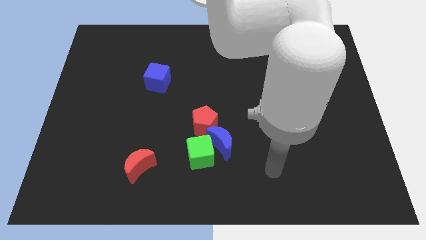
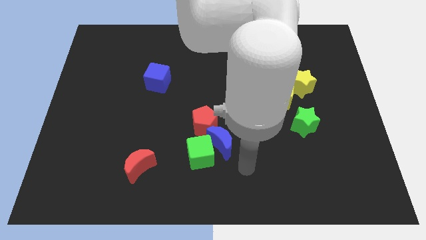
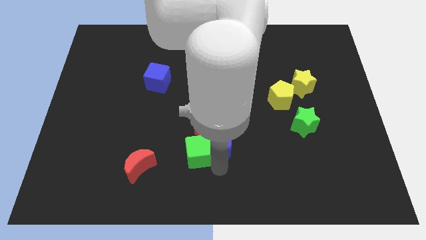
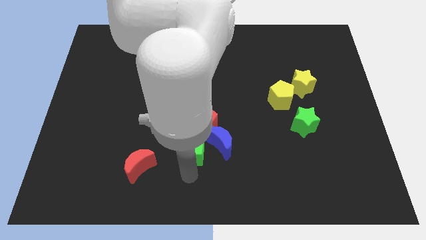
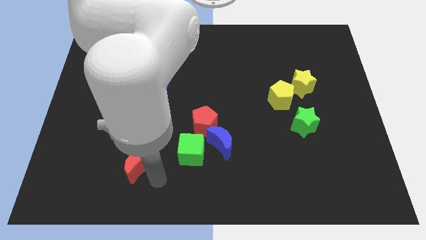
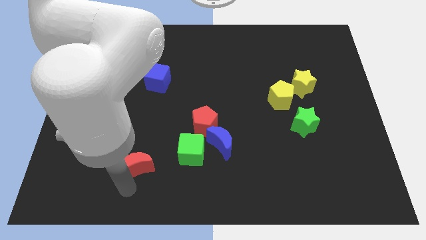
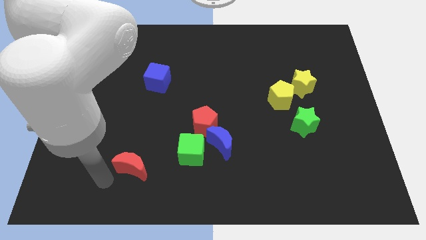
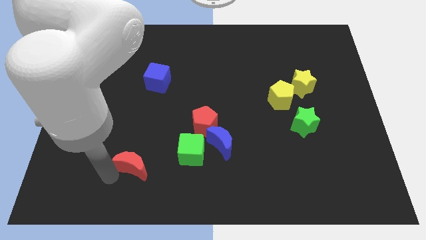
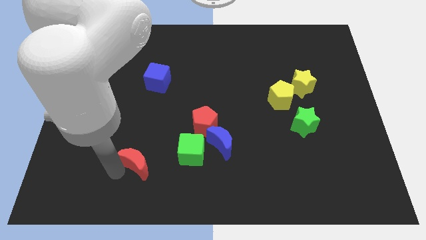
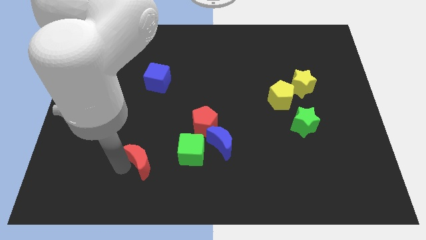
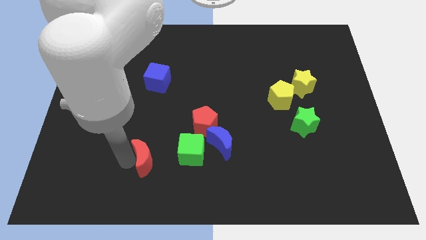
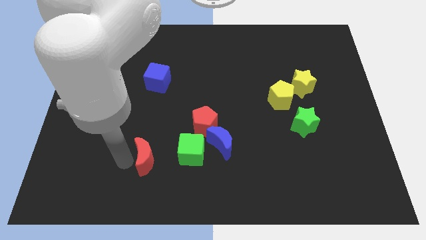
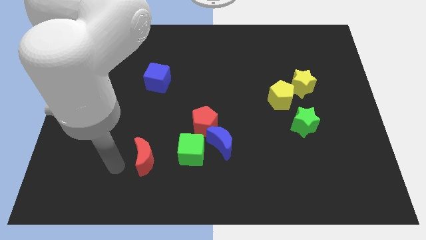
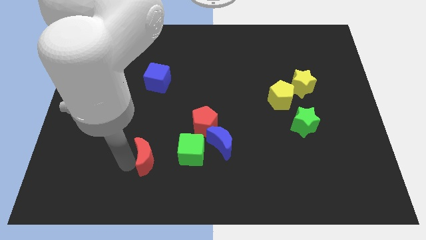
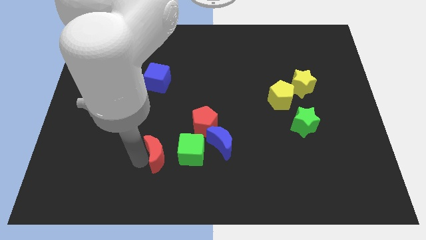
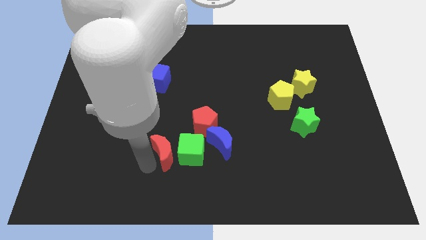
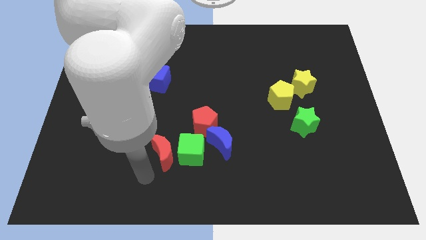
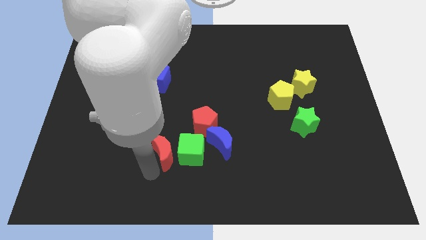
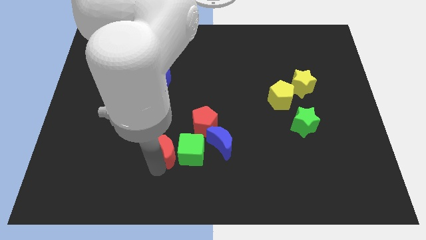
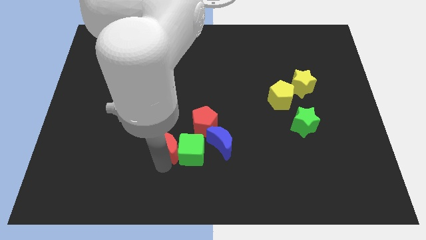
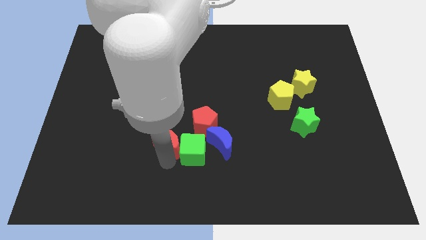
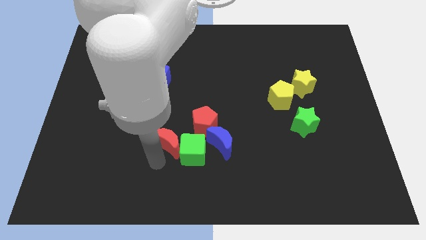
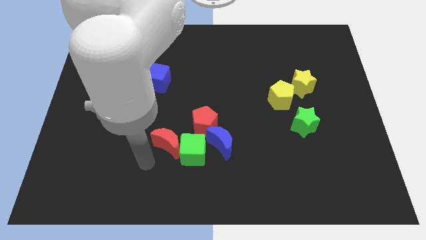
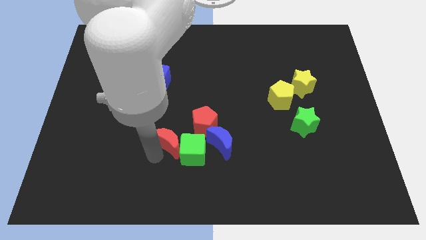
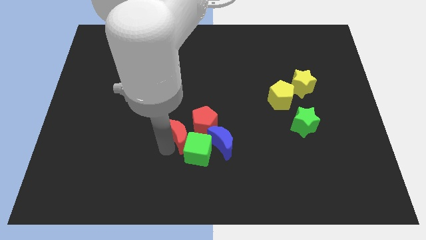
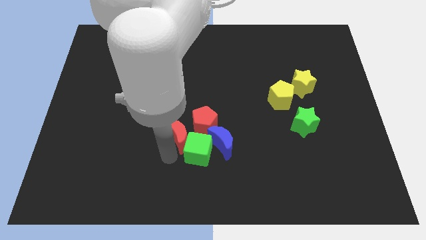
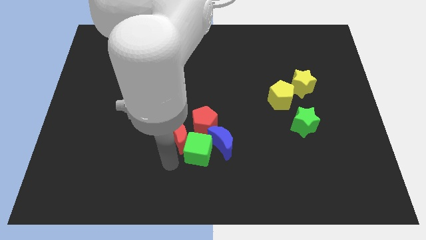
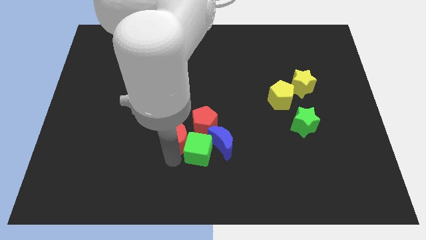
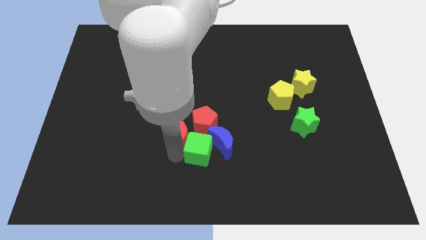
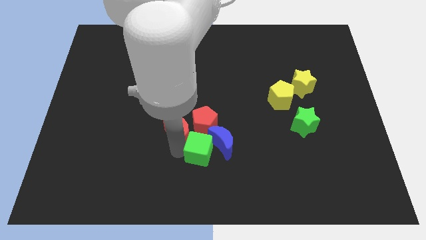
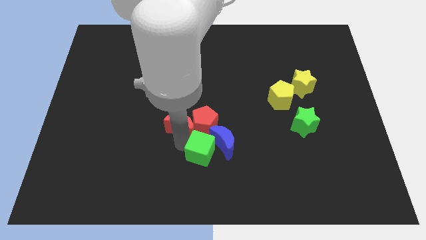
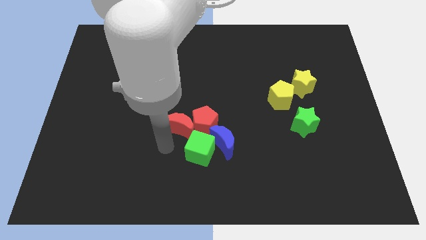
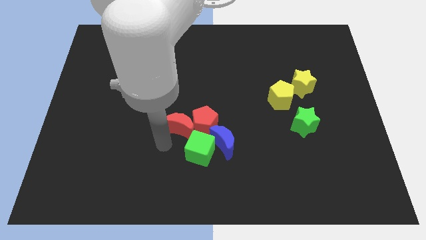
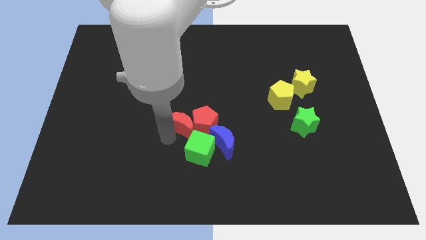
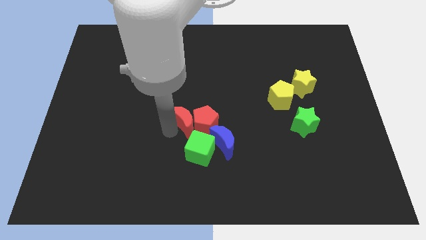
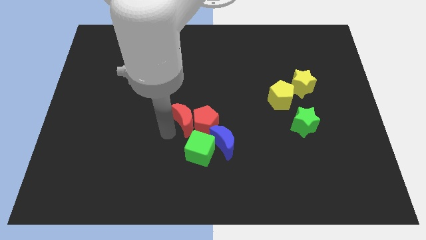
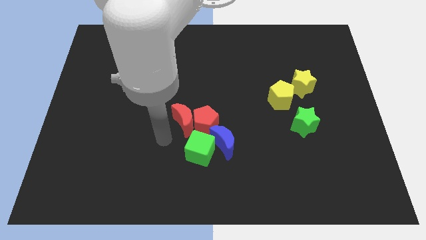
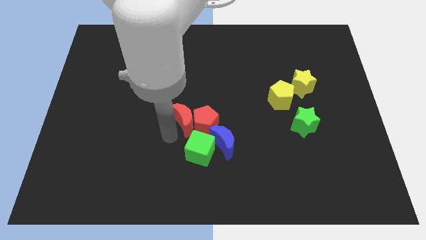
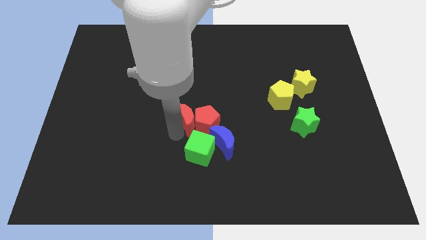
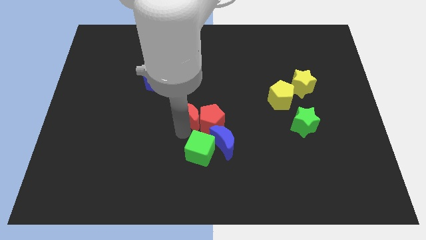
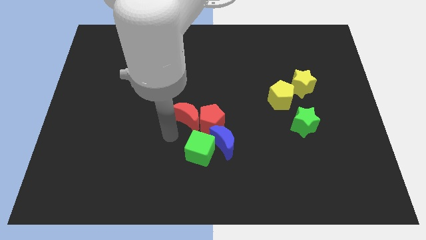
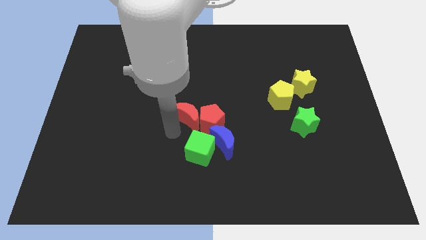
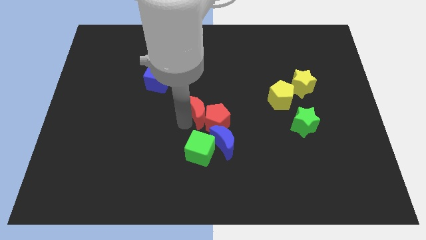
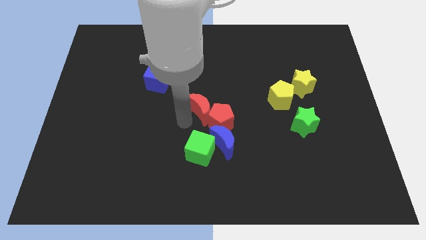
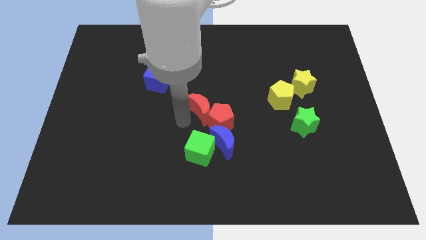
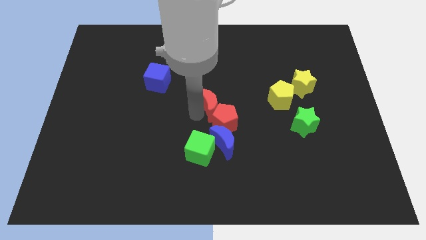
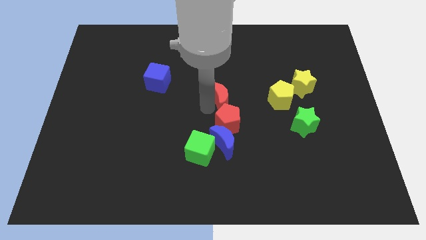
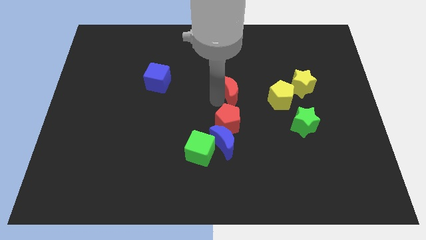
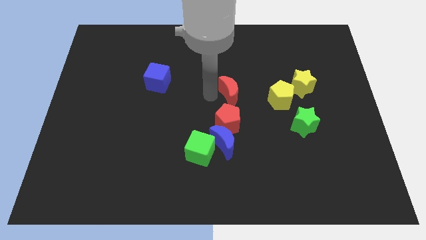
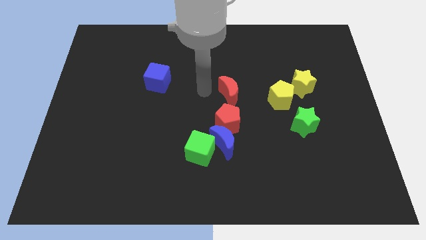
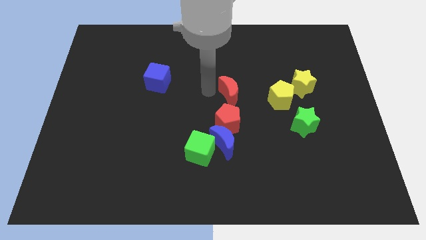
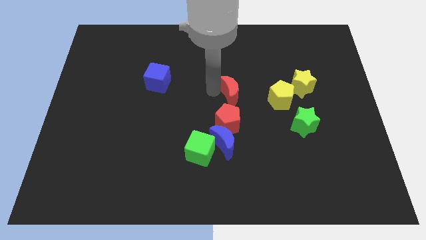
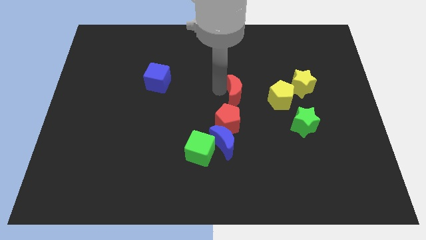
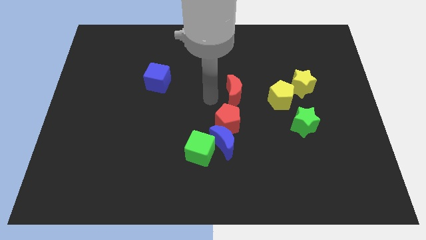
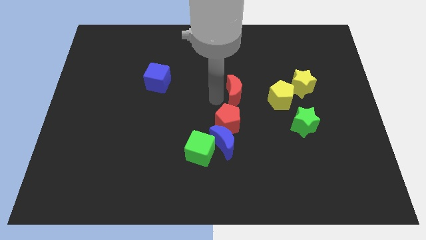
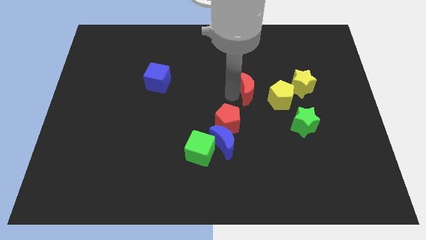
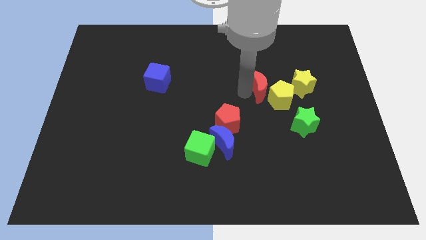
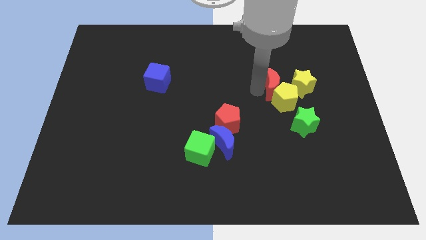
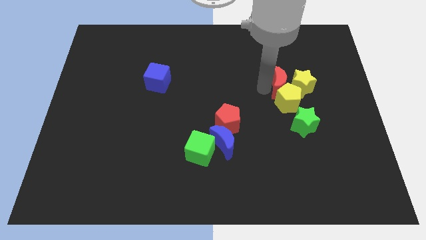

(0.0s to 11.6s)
move the red moon close to the yellow star

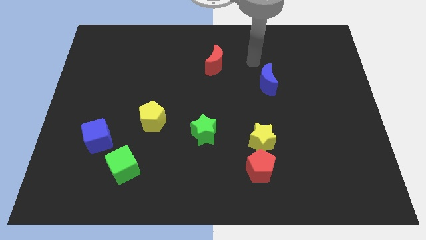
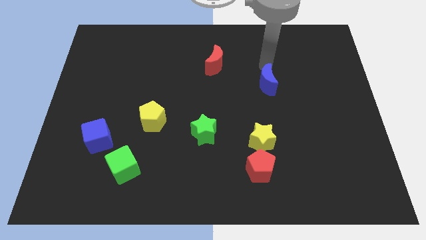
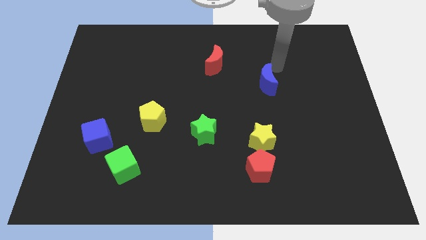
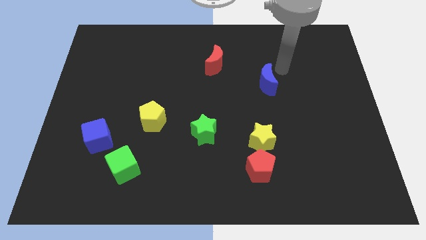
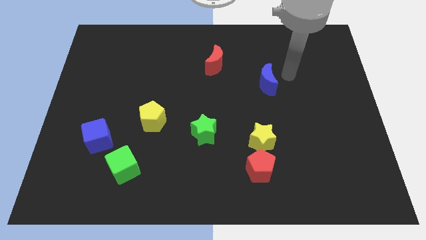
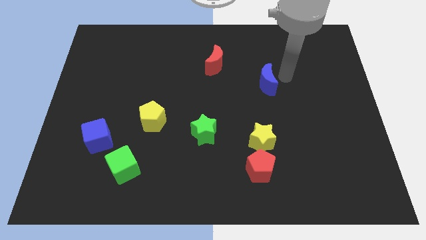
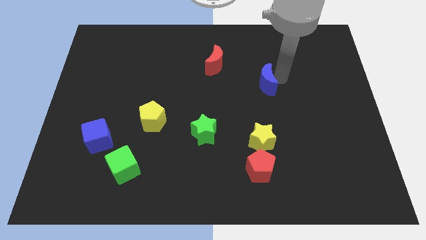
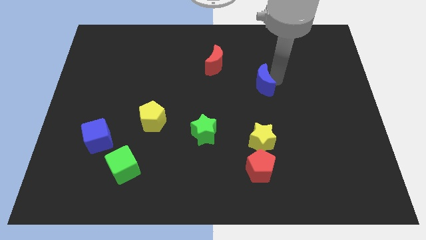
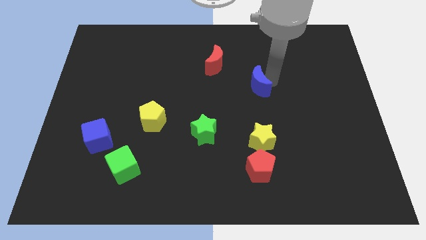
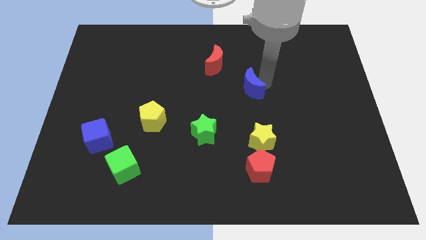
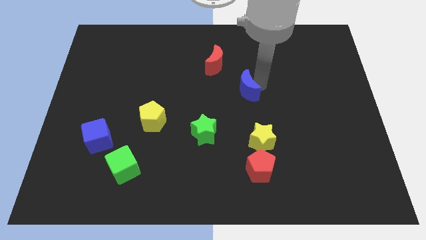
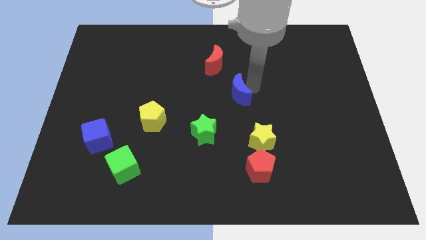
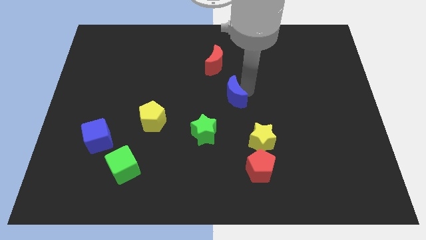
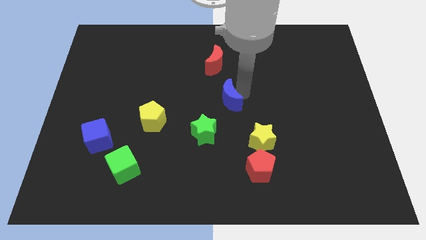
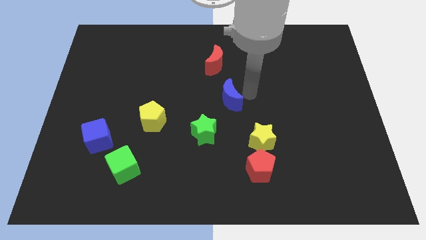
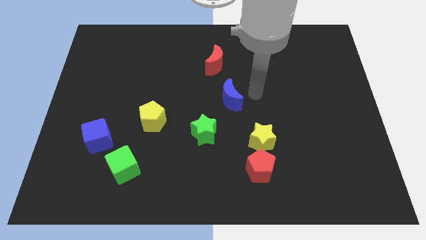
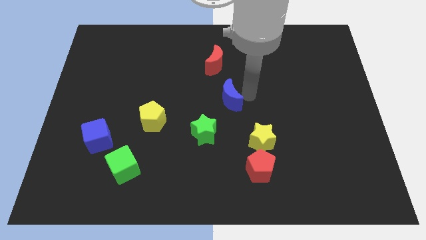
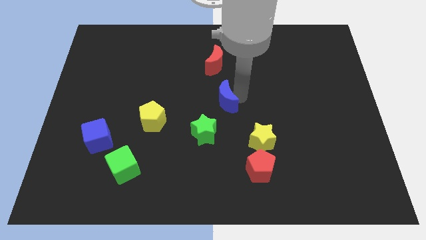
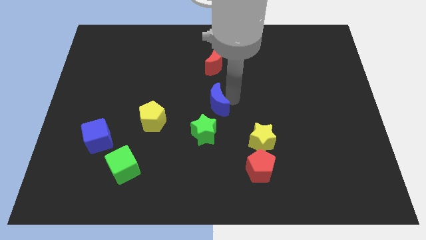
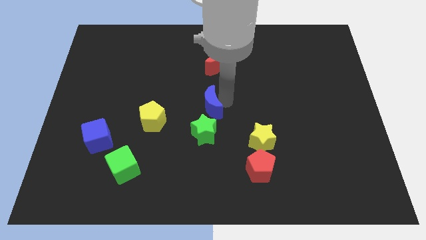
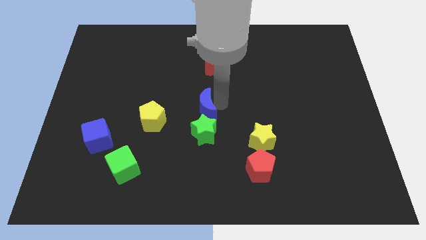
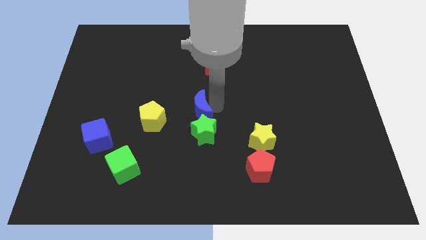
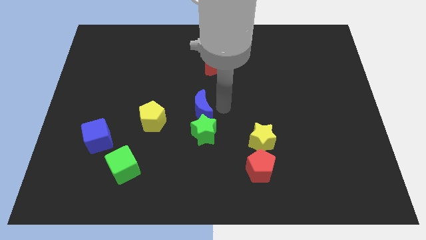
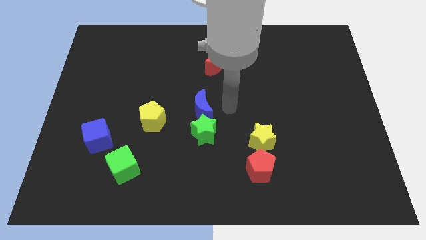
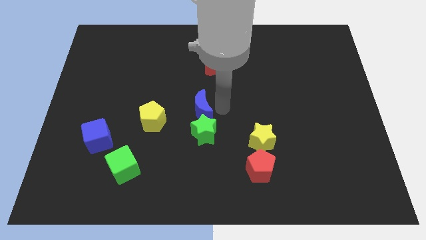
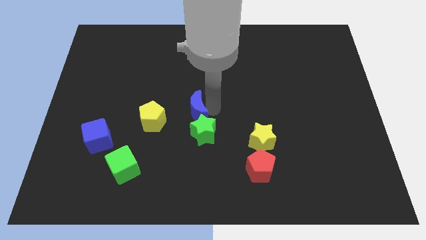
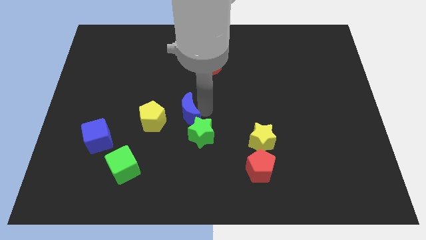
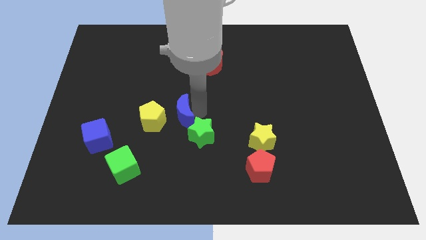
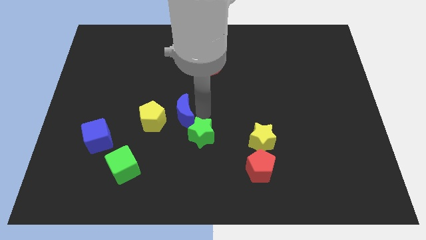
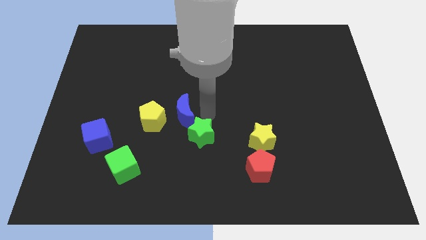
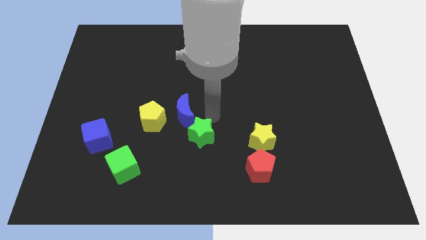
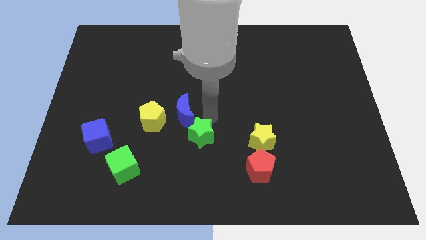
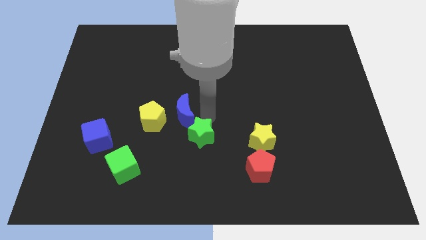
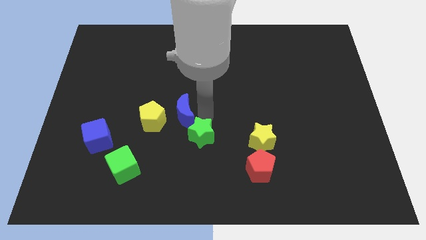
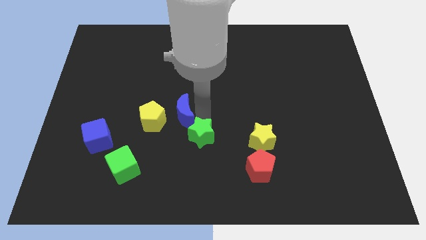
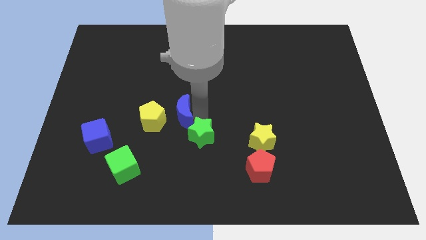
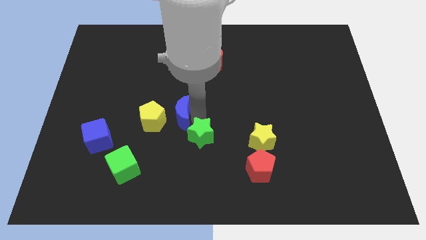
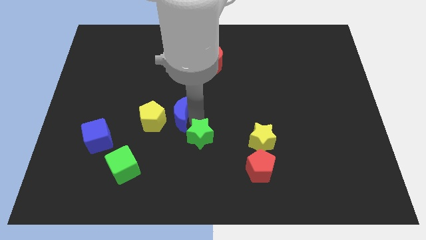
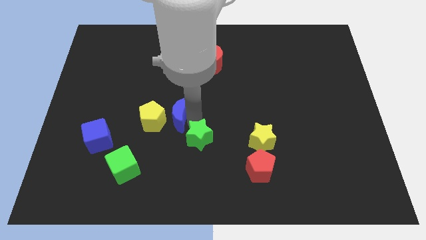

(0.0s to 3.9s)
move the blue moon close to the yellow pentagon
